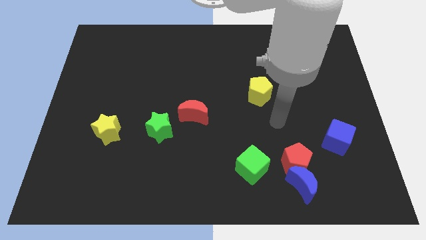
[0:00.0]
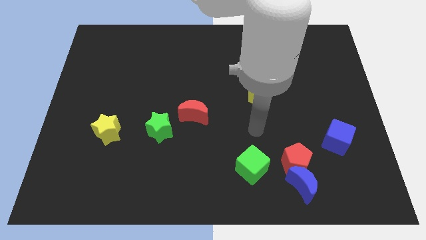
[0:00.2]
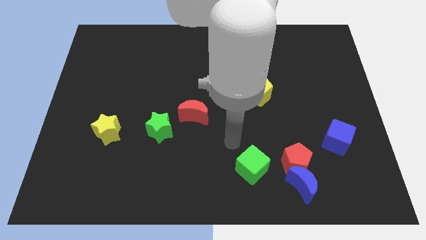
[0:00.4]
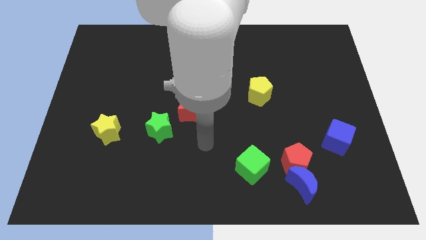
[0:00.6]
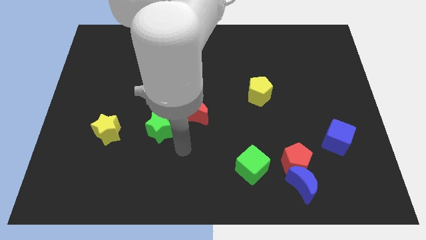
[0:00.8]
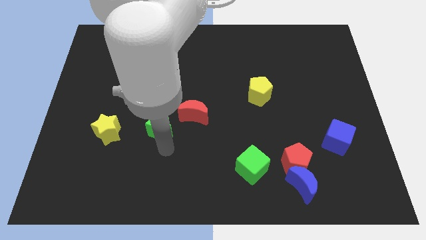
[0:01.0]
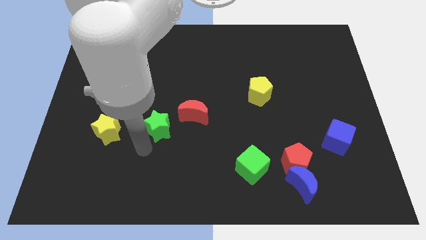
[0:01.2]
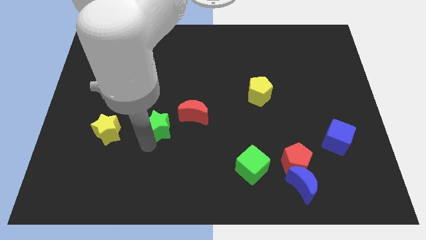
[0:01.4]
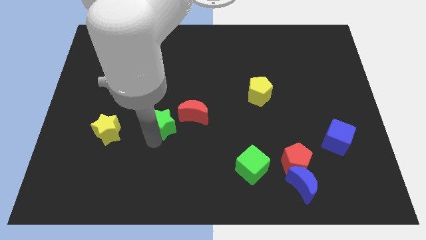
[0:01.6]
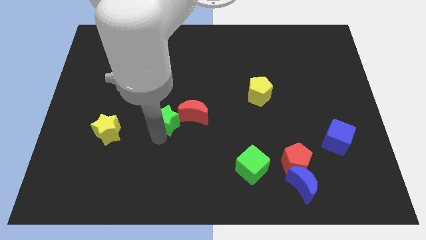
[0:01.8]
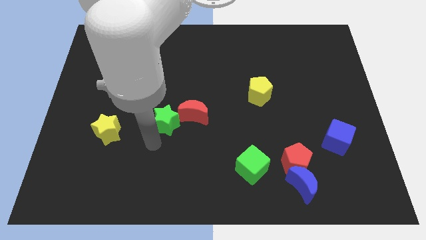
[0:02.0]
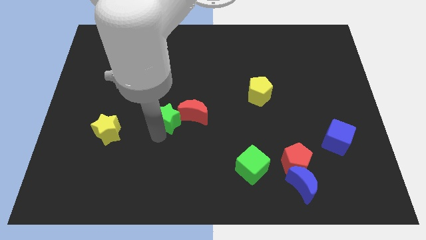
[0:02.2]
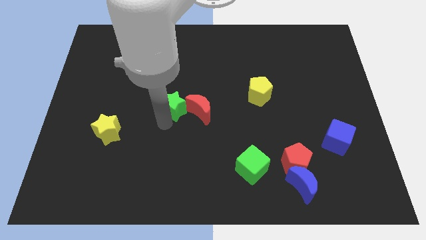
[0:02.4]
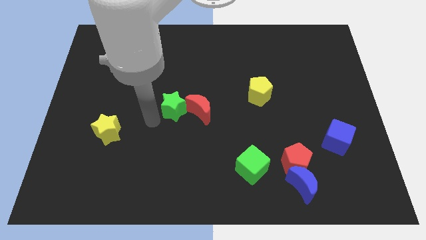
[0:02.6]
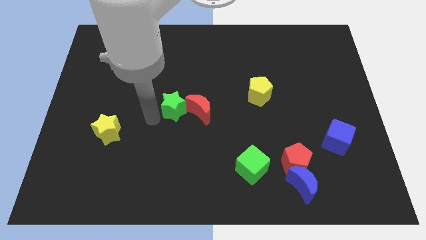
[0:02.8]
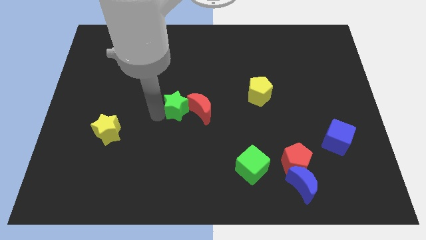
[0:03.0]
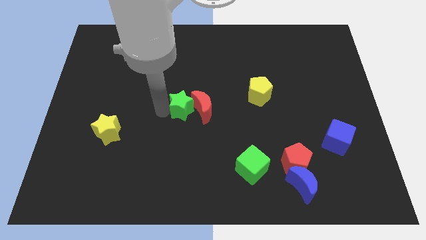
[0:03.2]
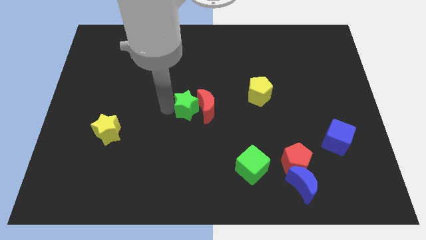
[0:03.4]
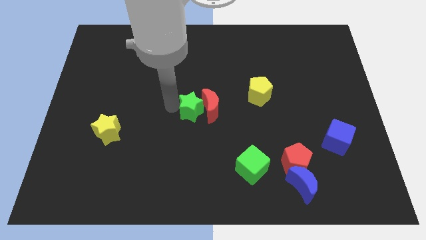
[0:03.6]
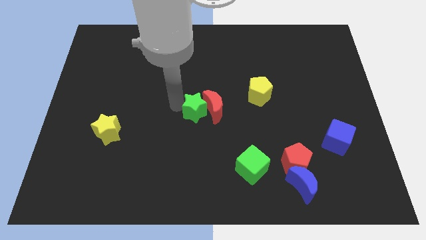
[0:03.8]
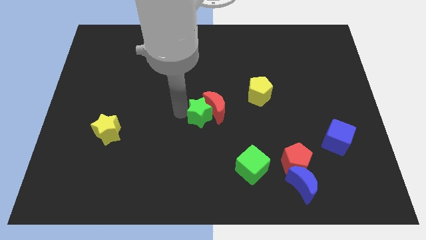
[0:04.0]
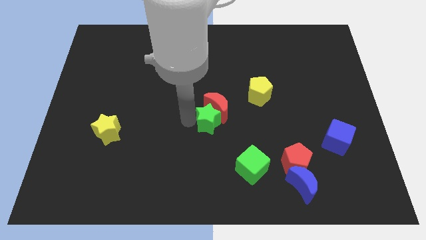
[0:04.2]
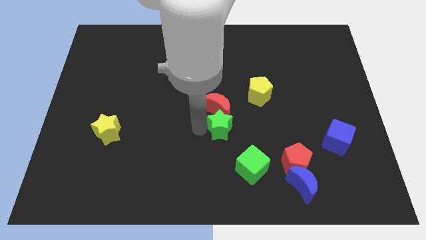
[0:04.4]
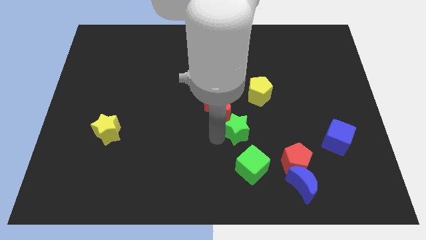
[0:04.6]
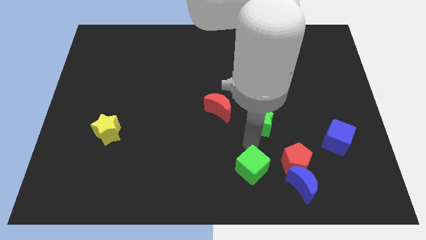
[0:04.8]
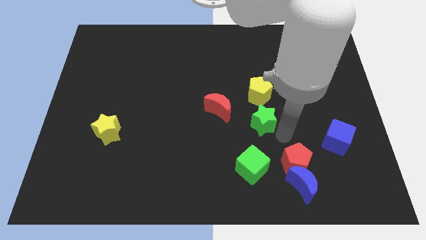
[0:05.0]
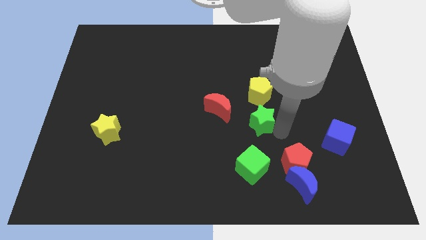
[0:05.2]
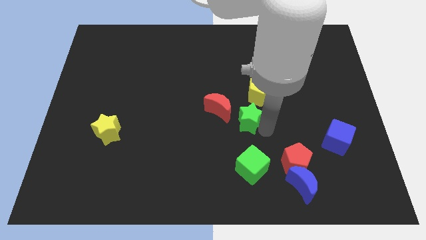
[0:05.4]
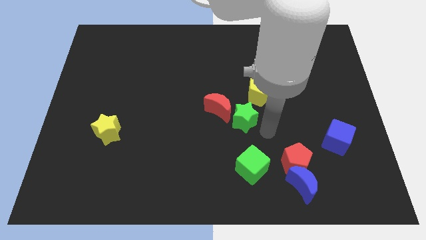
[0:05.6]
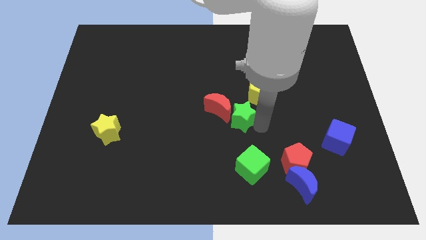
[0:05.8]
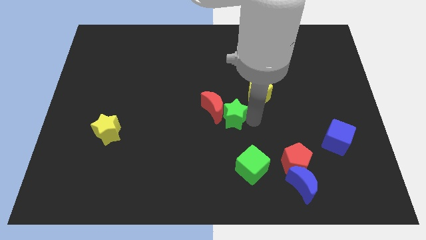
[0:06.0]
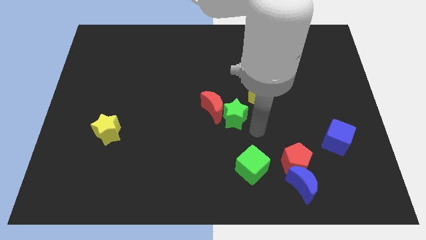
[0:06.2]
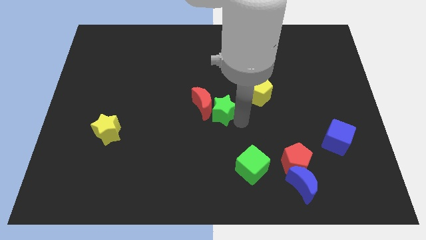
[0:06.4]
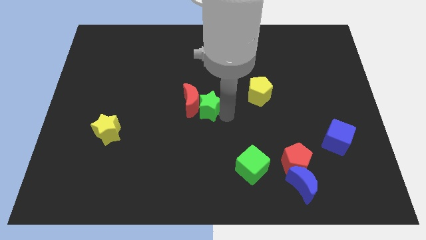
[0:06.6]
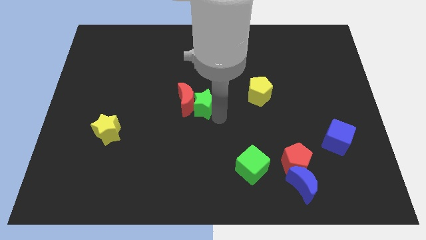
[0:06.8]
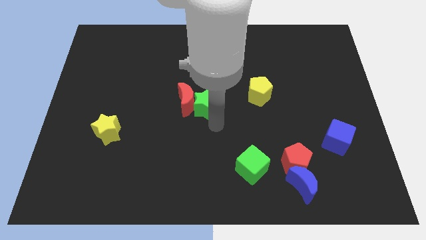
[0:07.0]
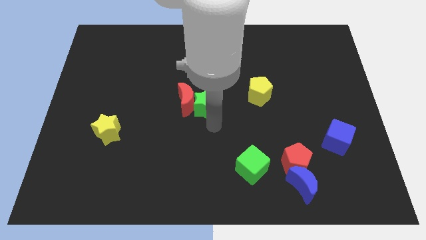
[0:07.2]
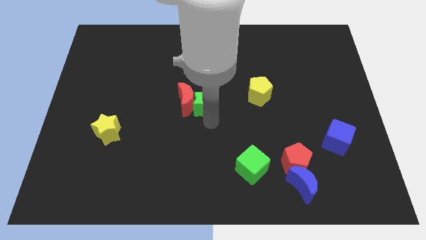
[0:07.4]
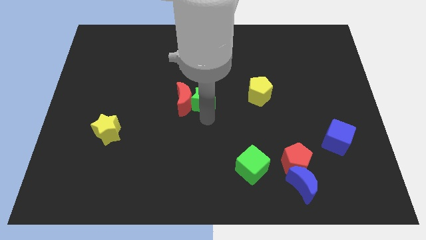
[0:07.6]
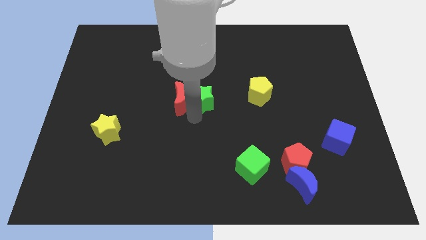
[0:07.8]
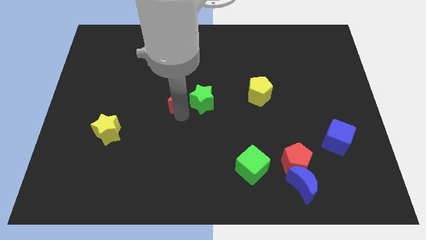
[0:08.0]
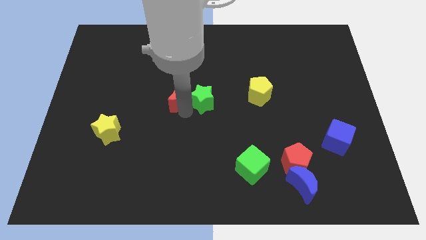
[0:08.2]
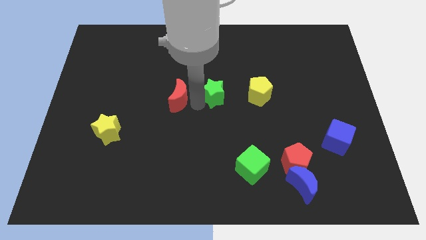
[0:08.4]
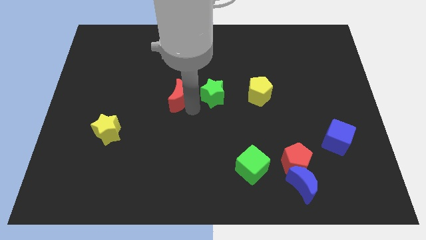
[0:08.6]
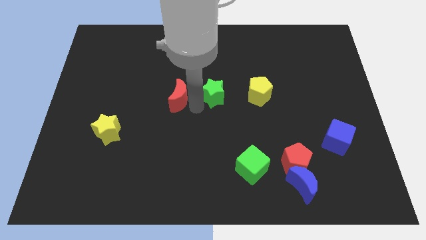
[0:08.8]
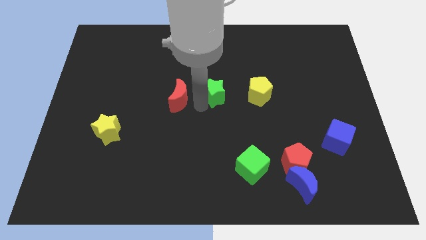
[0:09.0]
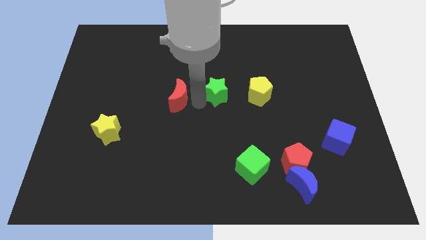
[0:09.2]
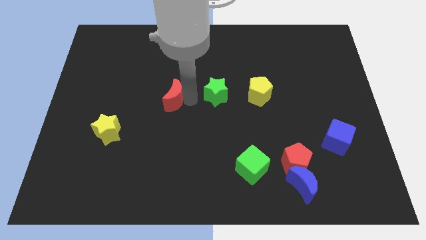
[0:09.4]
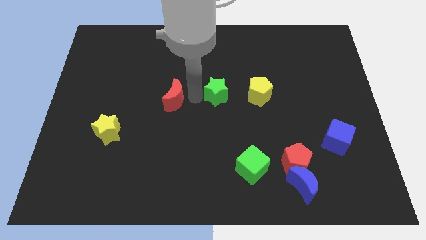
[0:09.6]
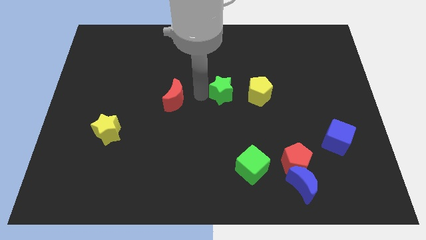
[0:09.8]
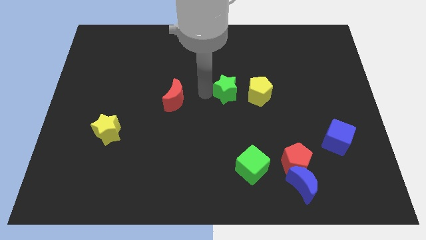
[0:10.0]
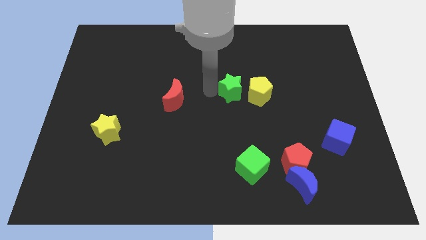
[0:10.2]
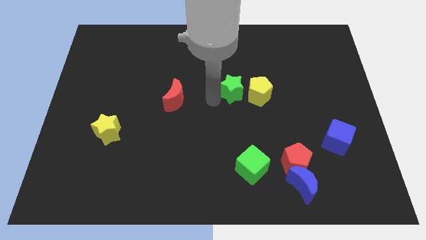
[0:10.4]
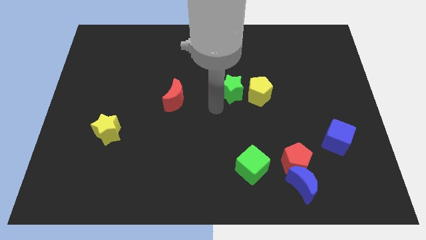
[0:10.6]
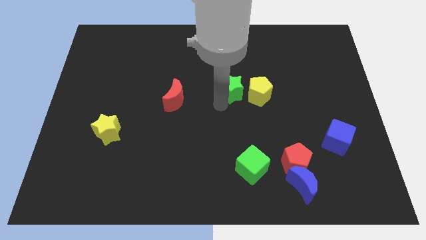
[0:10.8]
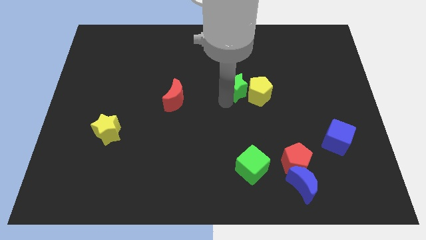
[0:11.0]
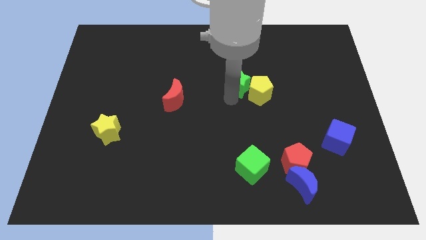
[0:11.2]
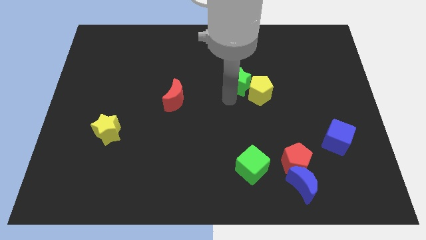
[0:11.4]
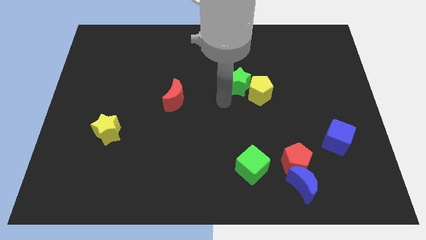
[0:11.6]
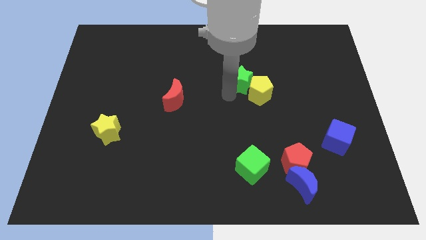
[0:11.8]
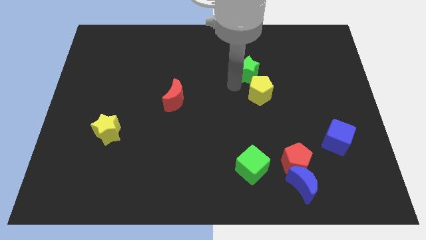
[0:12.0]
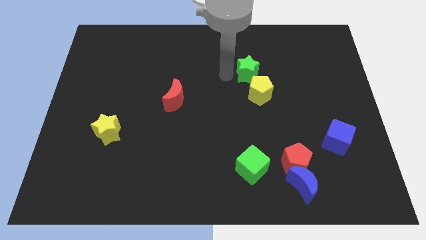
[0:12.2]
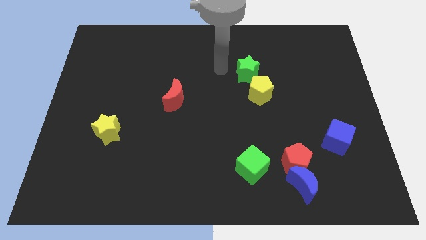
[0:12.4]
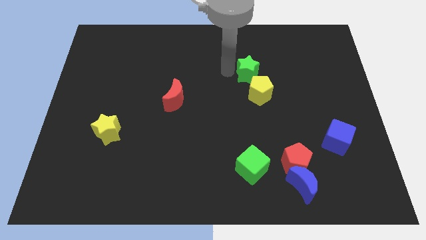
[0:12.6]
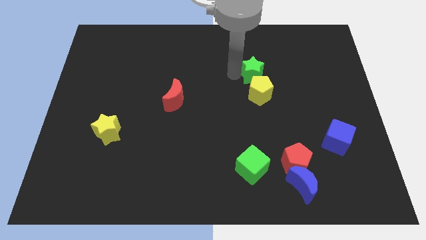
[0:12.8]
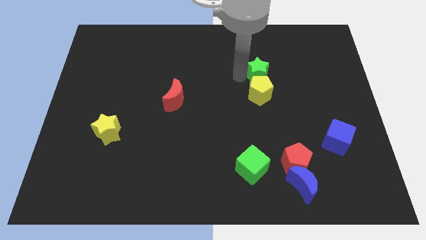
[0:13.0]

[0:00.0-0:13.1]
push the green star to the top right side of the yellow pentagon
